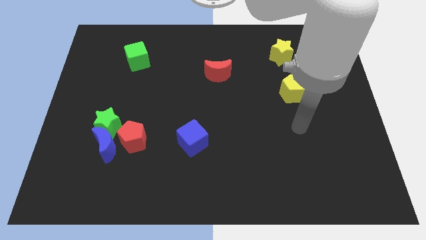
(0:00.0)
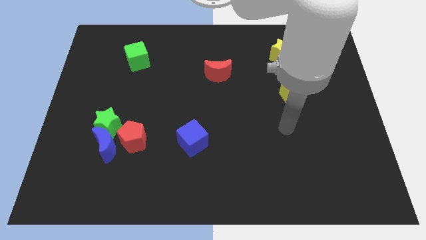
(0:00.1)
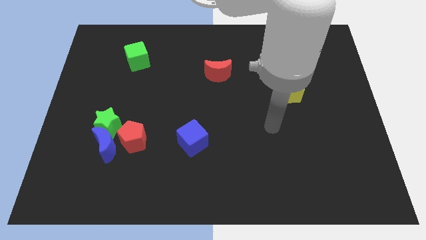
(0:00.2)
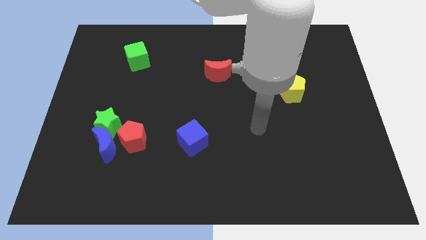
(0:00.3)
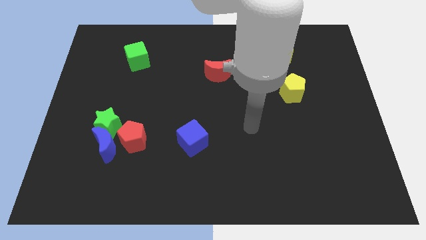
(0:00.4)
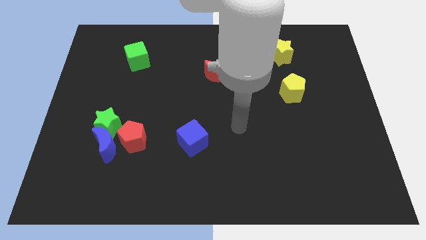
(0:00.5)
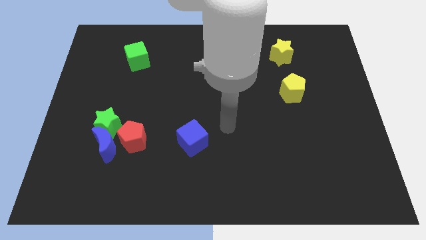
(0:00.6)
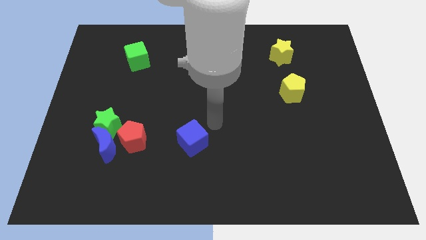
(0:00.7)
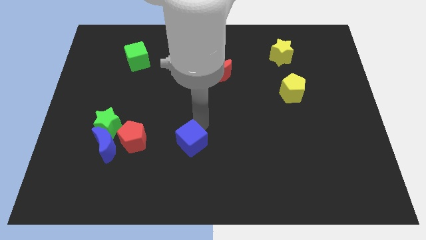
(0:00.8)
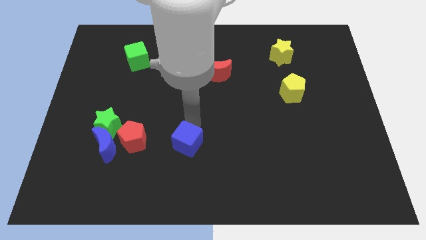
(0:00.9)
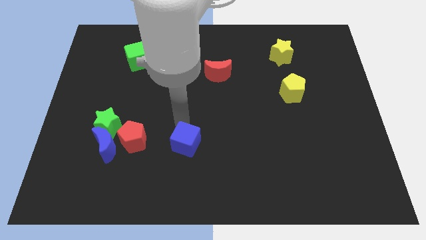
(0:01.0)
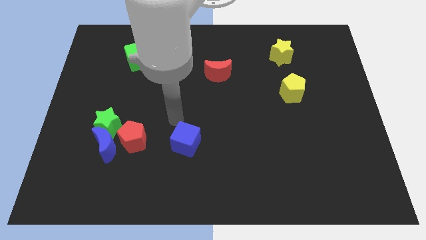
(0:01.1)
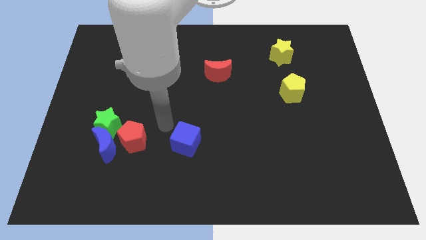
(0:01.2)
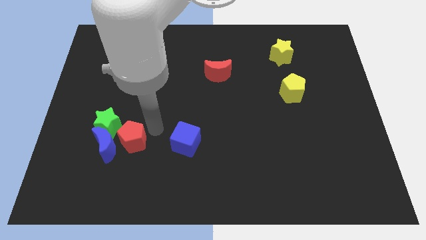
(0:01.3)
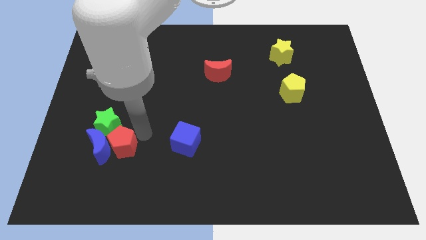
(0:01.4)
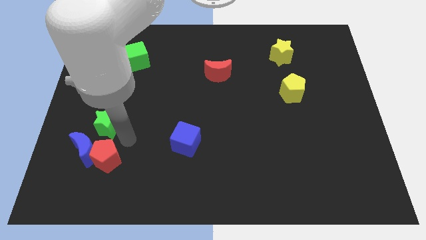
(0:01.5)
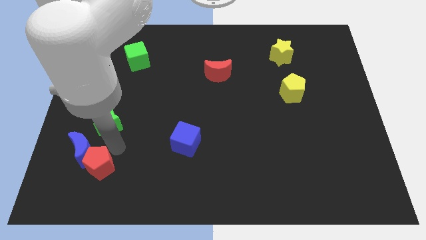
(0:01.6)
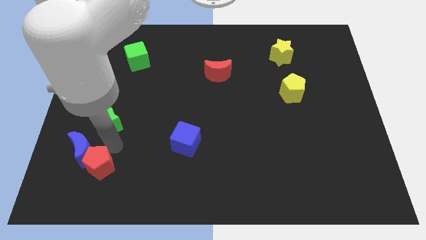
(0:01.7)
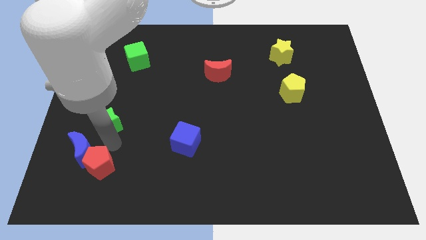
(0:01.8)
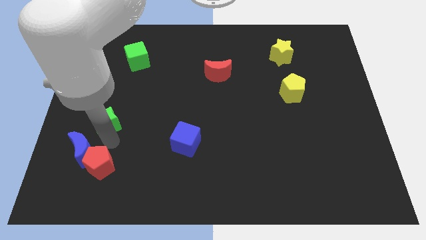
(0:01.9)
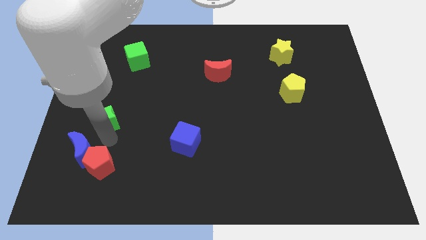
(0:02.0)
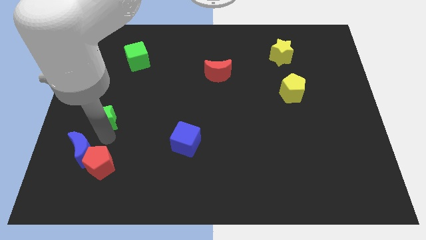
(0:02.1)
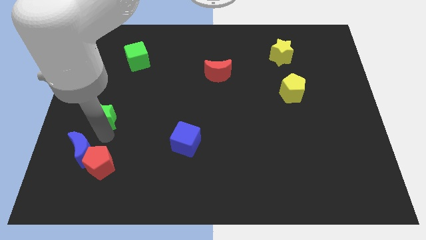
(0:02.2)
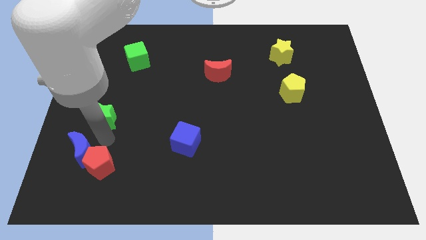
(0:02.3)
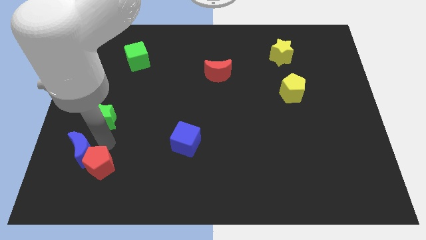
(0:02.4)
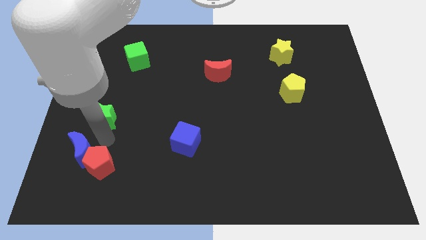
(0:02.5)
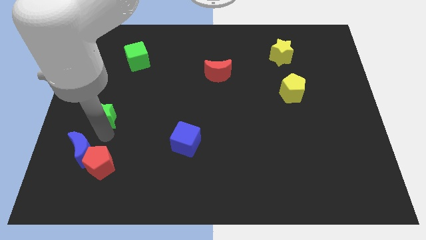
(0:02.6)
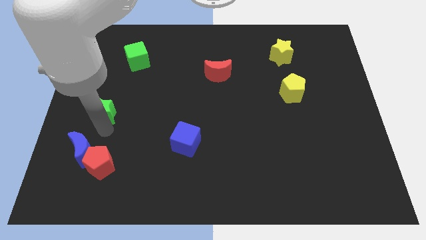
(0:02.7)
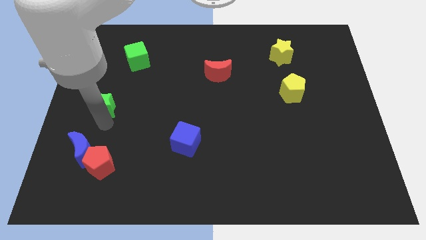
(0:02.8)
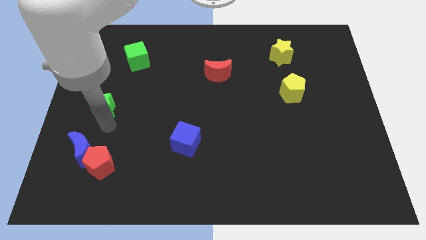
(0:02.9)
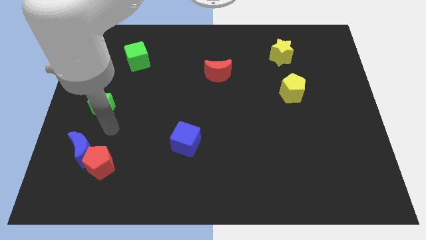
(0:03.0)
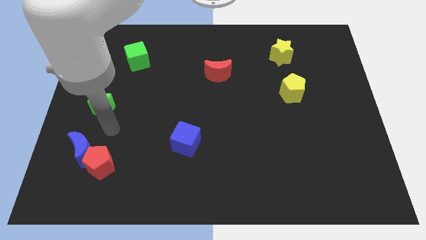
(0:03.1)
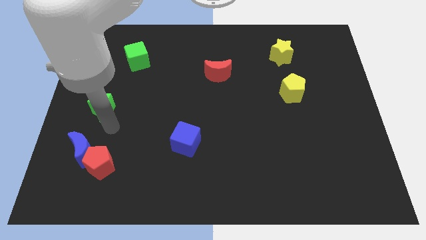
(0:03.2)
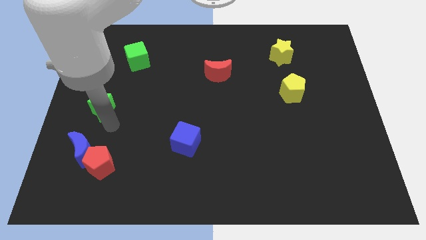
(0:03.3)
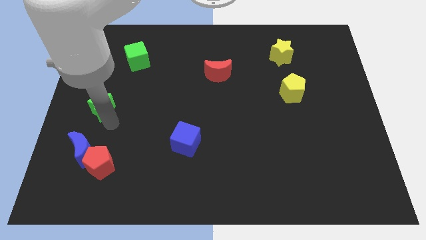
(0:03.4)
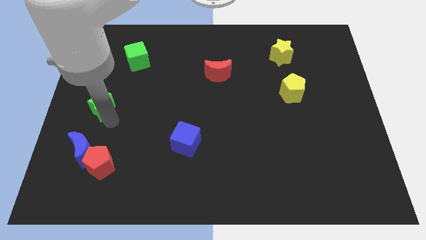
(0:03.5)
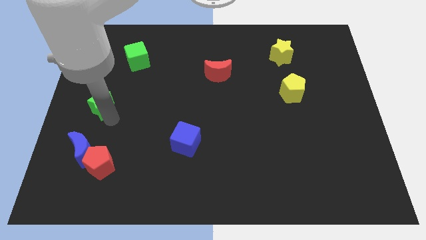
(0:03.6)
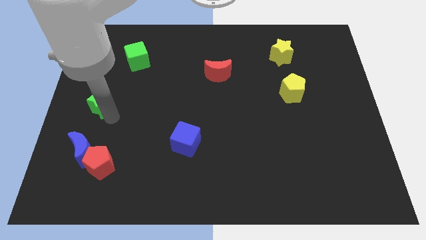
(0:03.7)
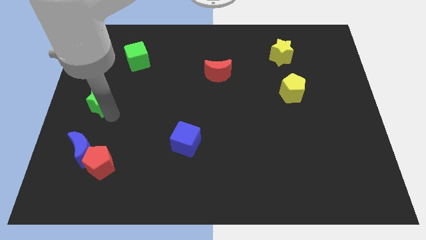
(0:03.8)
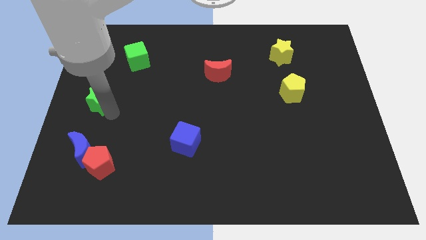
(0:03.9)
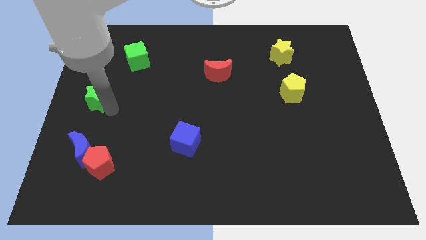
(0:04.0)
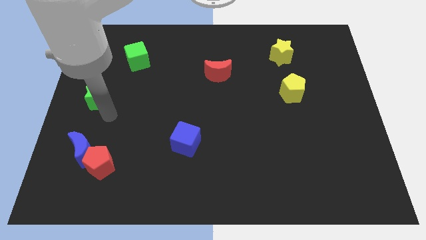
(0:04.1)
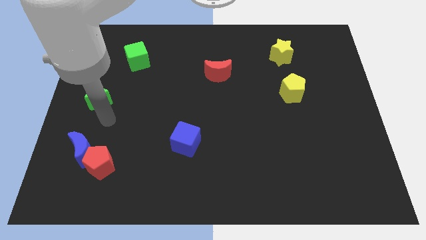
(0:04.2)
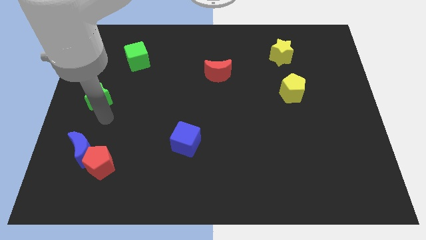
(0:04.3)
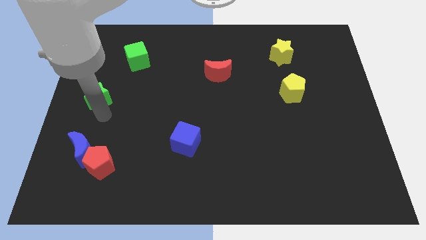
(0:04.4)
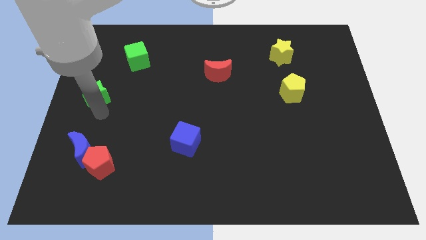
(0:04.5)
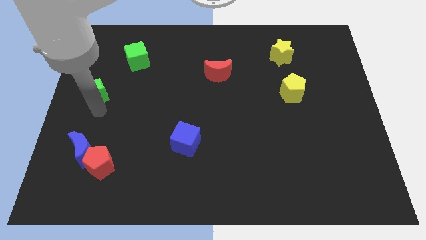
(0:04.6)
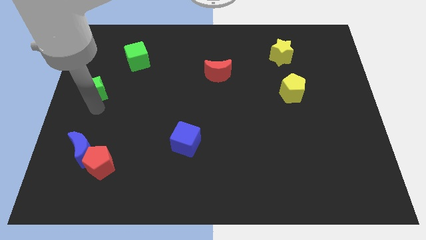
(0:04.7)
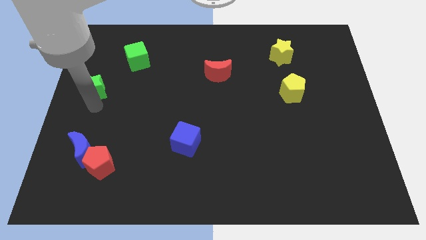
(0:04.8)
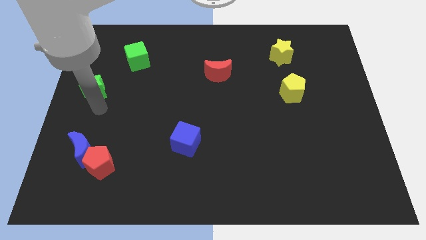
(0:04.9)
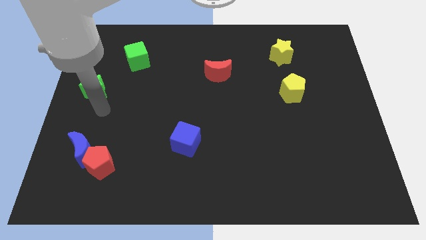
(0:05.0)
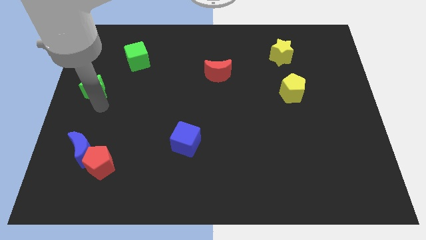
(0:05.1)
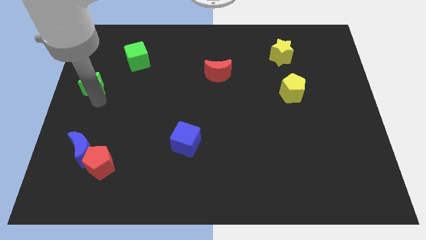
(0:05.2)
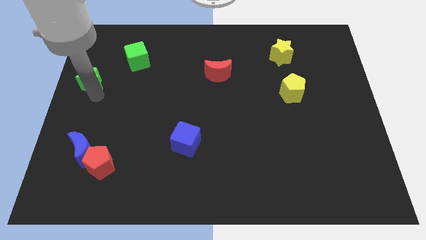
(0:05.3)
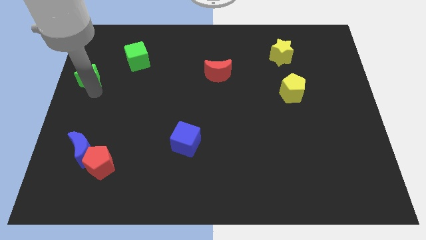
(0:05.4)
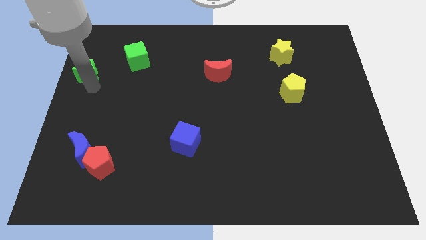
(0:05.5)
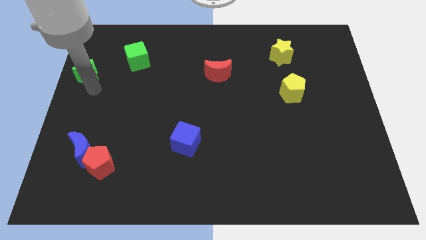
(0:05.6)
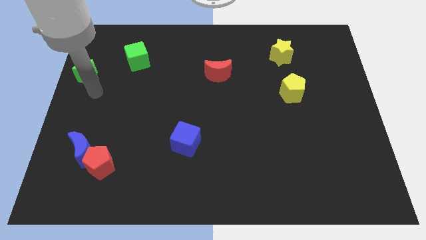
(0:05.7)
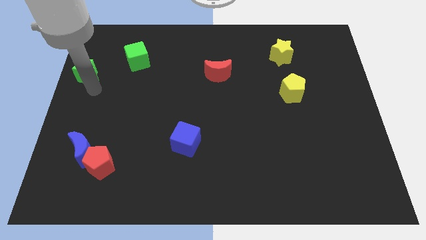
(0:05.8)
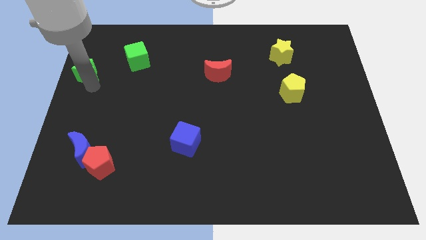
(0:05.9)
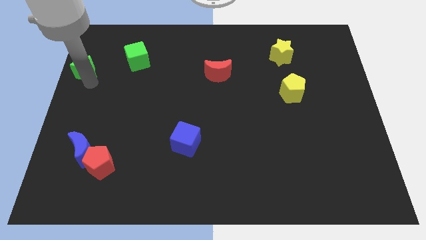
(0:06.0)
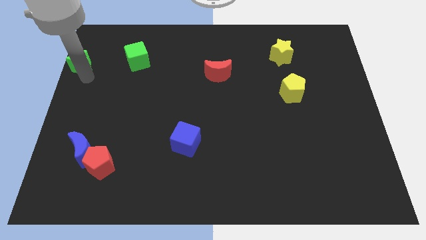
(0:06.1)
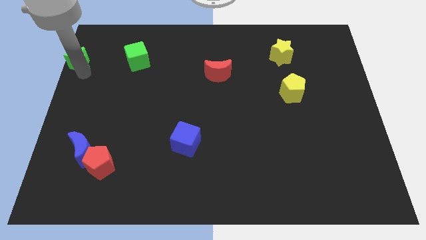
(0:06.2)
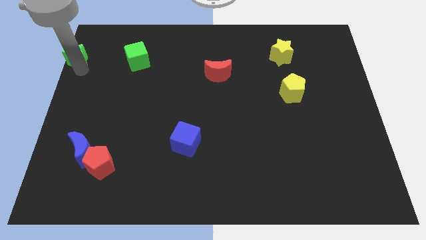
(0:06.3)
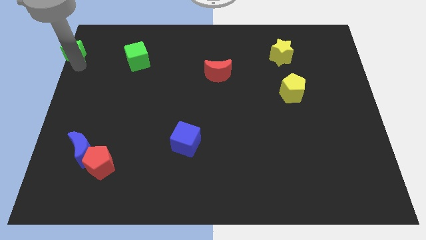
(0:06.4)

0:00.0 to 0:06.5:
move the green star to the upper left corner
